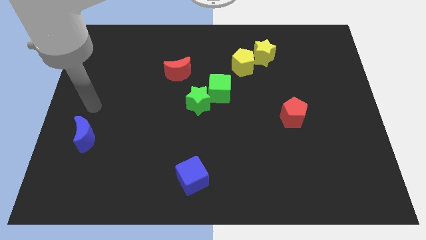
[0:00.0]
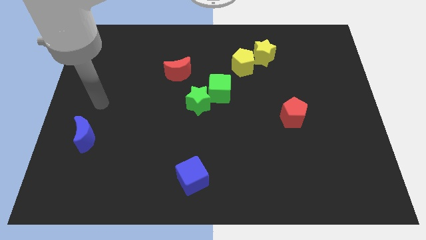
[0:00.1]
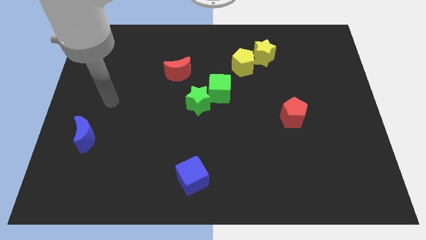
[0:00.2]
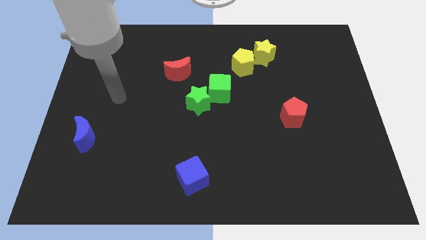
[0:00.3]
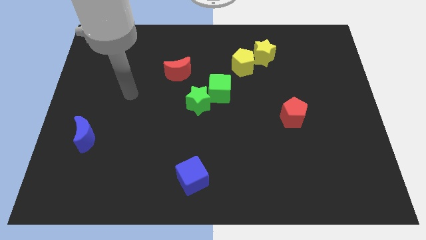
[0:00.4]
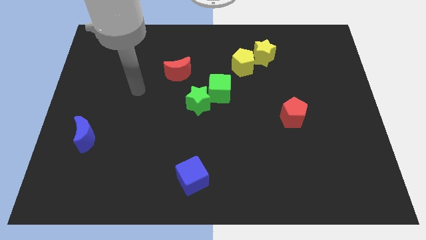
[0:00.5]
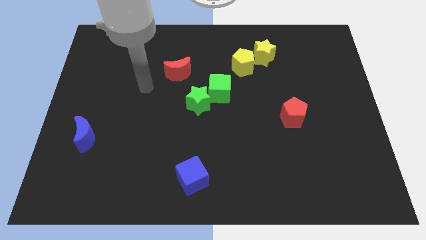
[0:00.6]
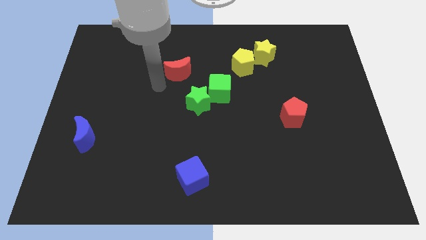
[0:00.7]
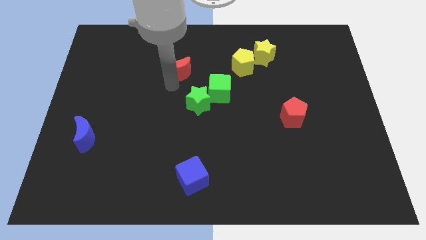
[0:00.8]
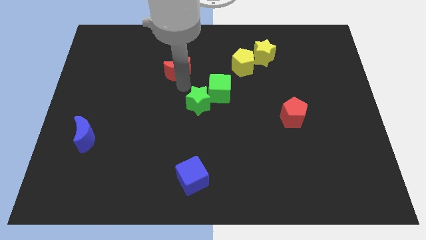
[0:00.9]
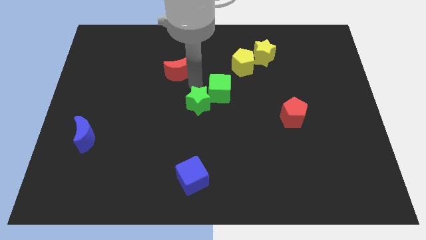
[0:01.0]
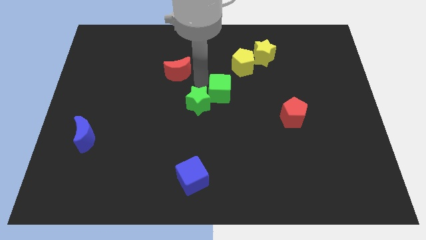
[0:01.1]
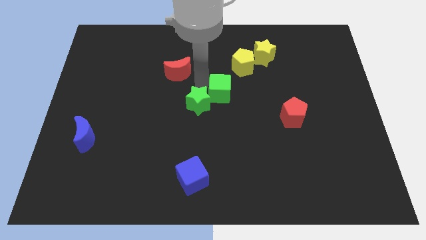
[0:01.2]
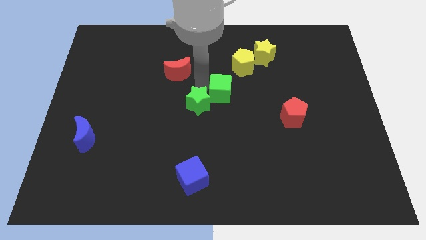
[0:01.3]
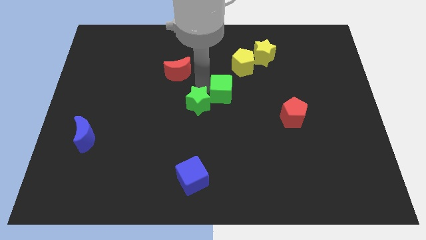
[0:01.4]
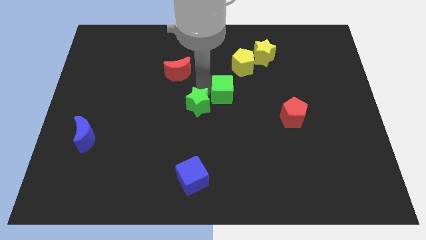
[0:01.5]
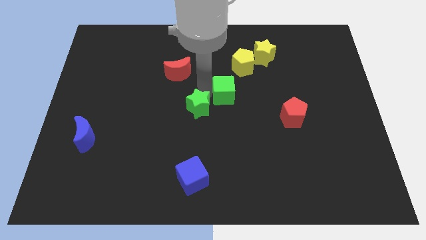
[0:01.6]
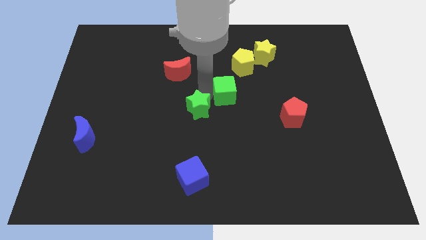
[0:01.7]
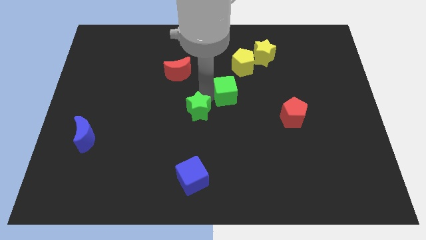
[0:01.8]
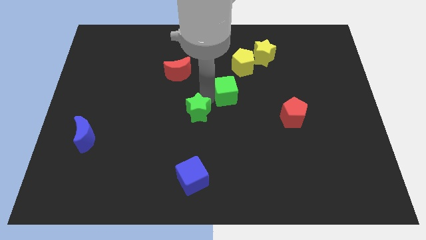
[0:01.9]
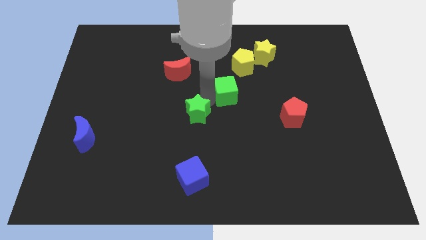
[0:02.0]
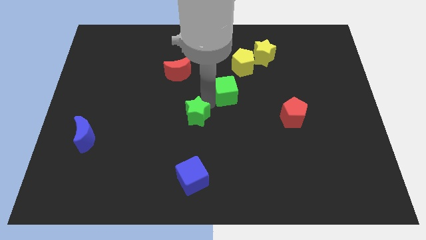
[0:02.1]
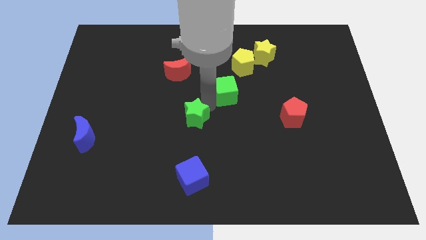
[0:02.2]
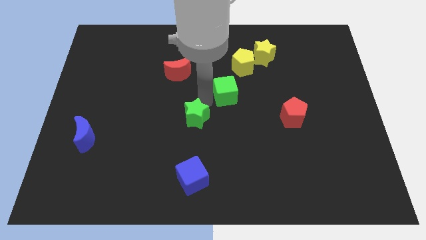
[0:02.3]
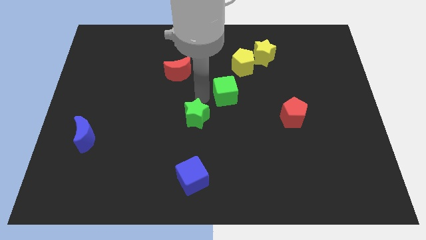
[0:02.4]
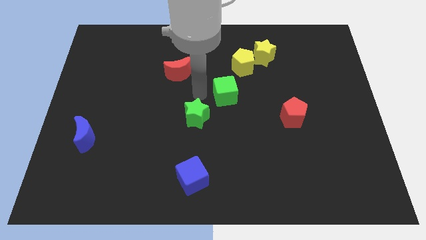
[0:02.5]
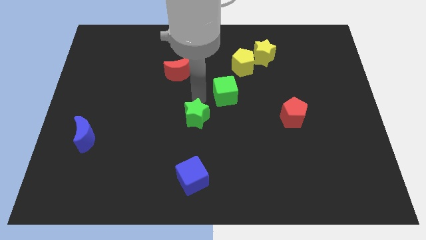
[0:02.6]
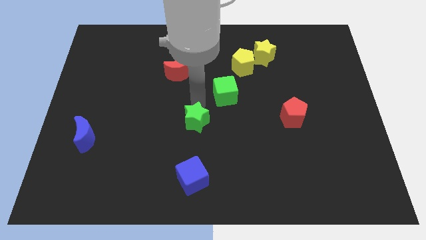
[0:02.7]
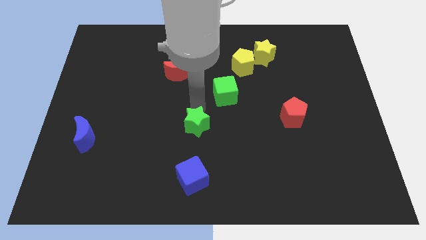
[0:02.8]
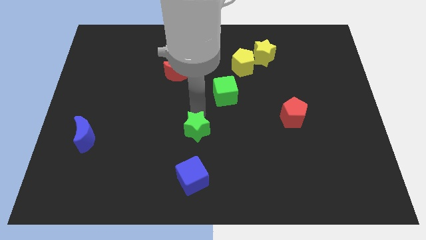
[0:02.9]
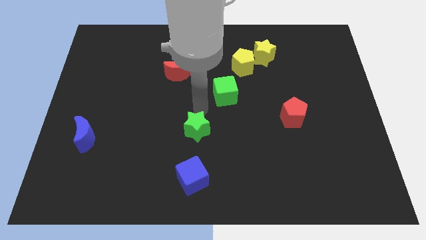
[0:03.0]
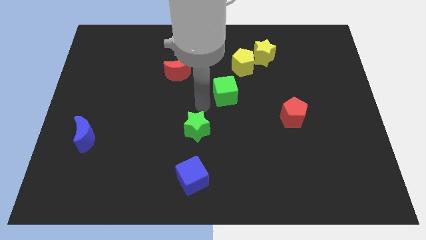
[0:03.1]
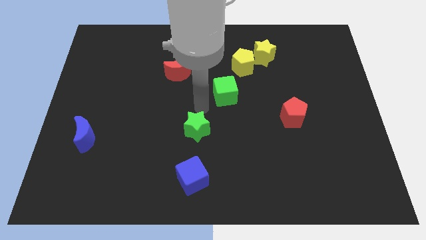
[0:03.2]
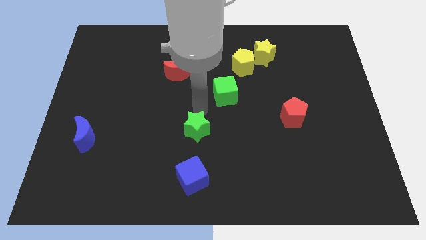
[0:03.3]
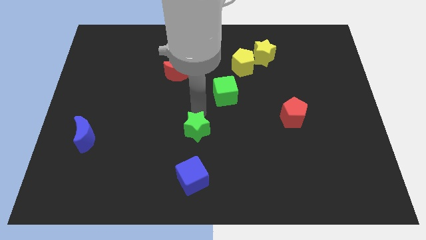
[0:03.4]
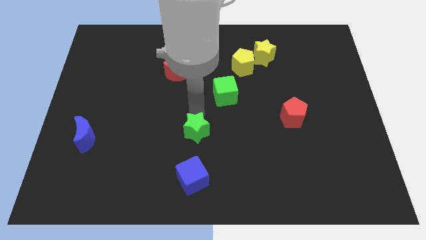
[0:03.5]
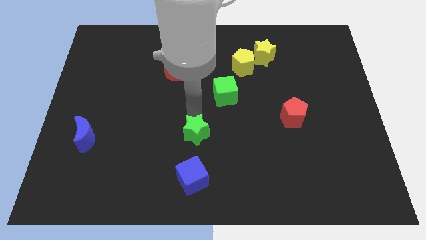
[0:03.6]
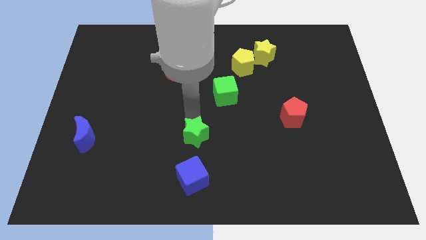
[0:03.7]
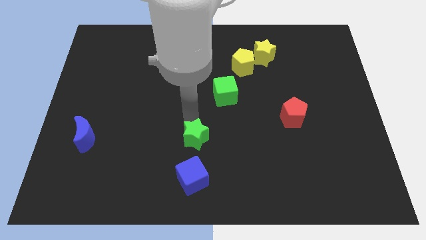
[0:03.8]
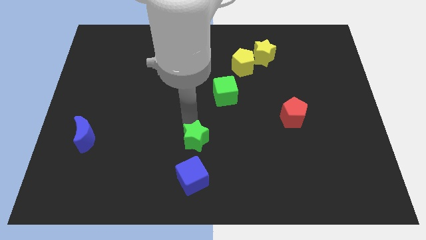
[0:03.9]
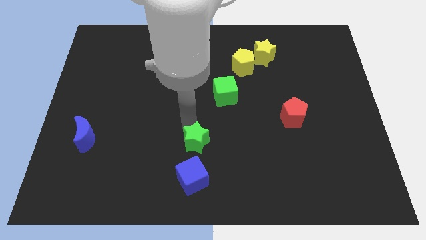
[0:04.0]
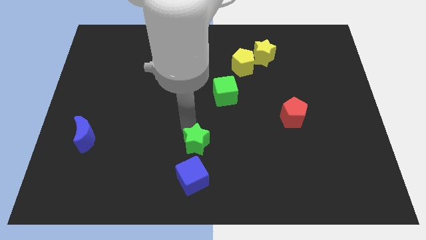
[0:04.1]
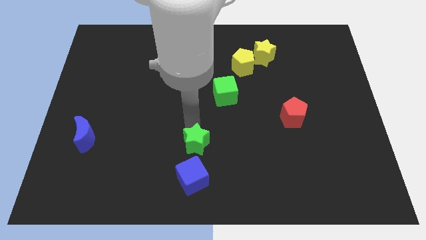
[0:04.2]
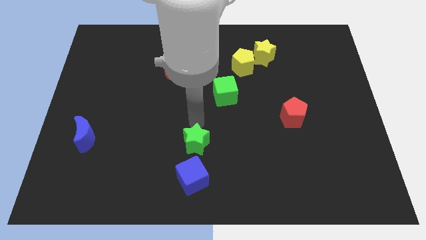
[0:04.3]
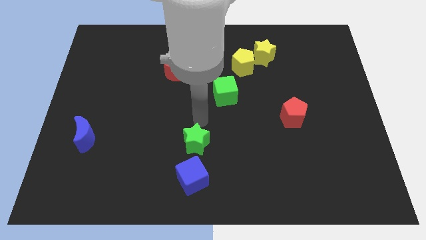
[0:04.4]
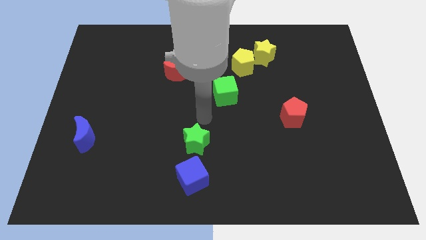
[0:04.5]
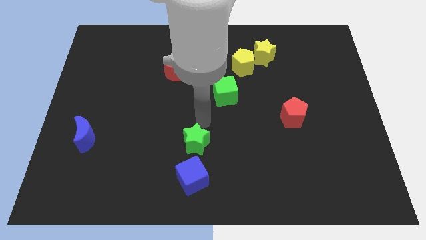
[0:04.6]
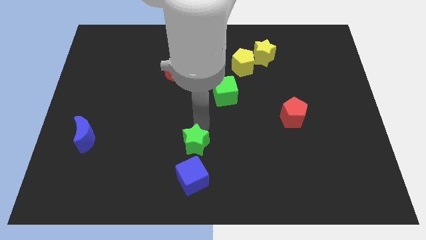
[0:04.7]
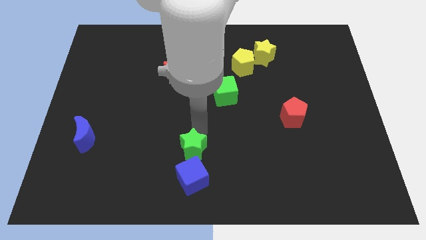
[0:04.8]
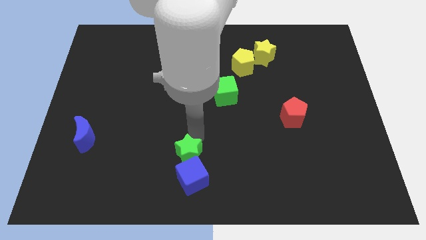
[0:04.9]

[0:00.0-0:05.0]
push the green star close to the blue cube

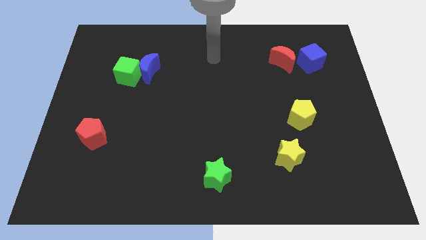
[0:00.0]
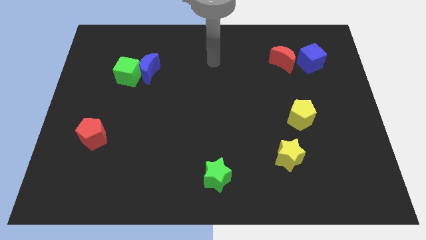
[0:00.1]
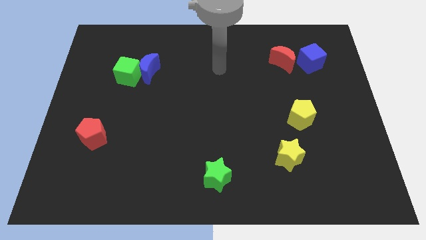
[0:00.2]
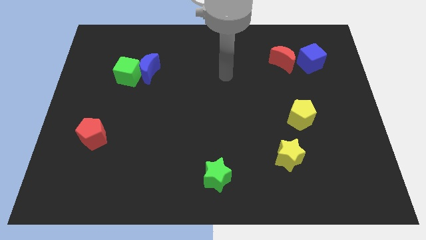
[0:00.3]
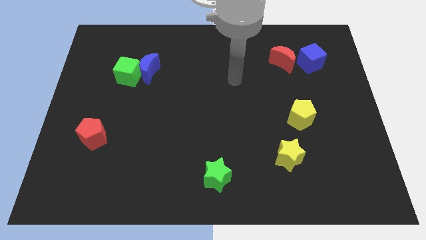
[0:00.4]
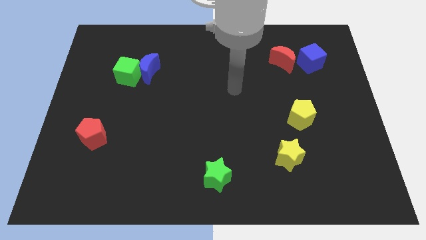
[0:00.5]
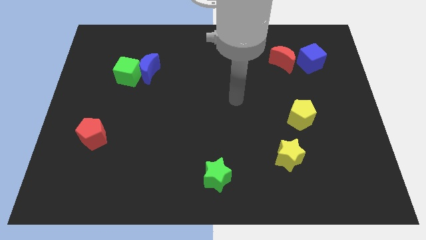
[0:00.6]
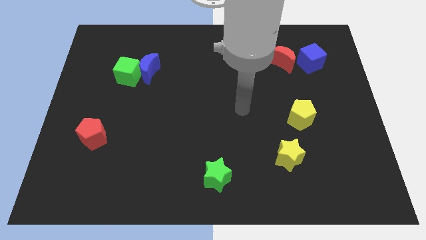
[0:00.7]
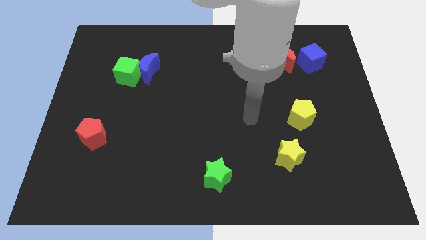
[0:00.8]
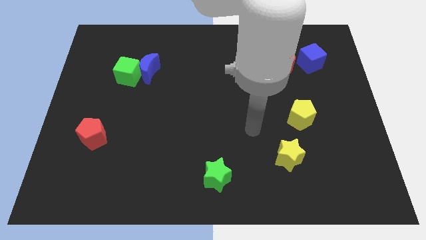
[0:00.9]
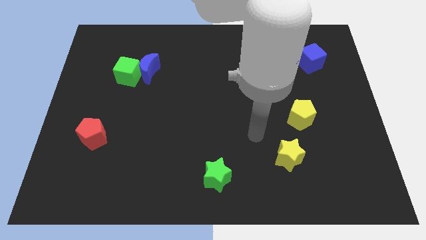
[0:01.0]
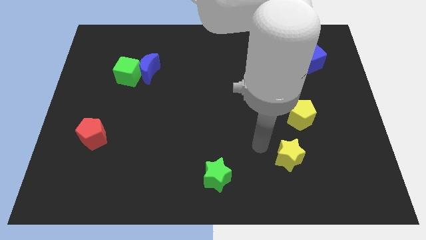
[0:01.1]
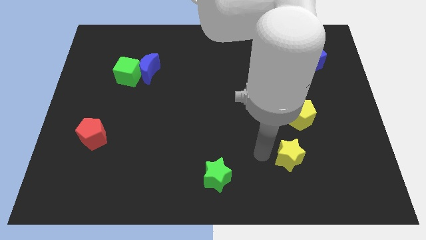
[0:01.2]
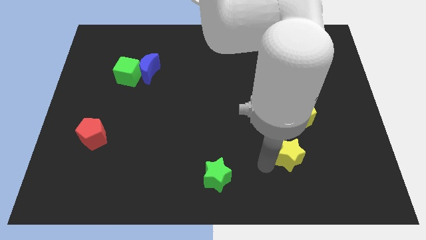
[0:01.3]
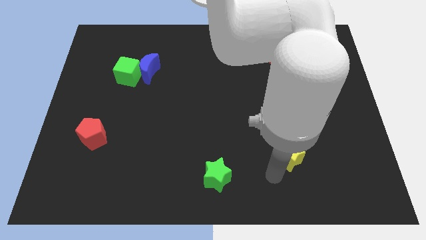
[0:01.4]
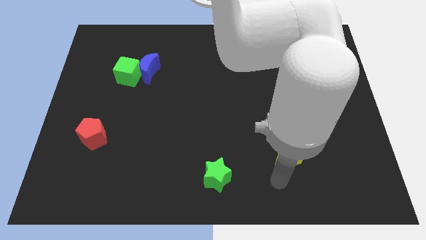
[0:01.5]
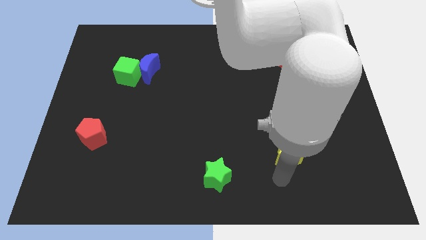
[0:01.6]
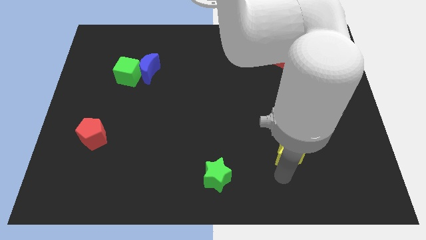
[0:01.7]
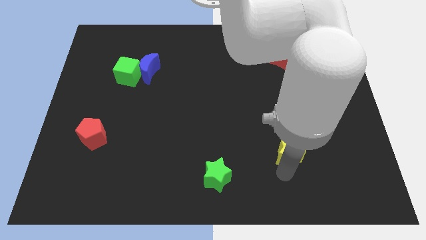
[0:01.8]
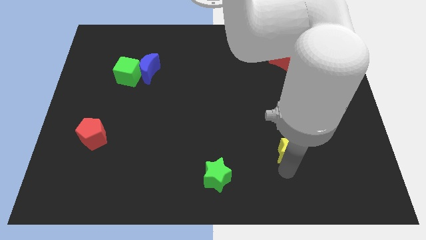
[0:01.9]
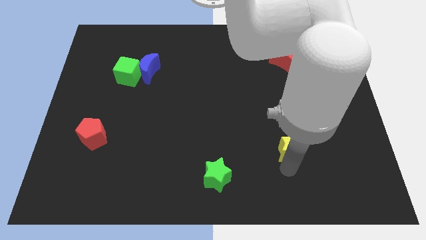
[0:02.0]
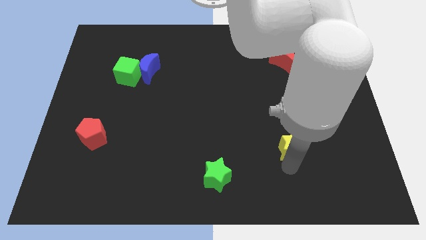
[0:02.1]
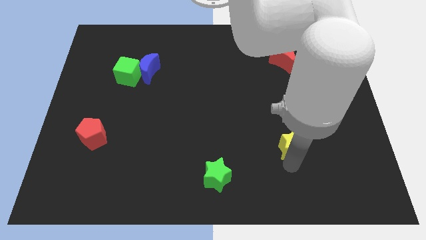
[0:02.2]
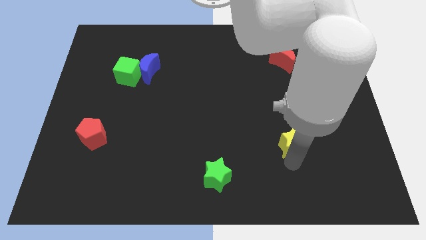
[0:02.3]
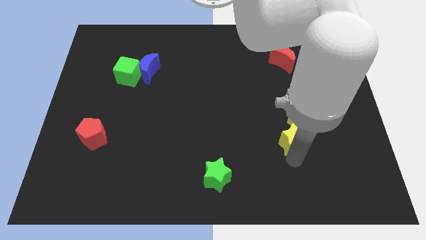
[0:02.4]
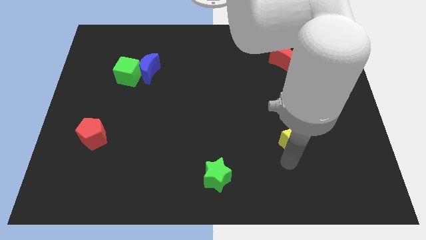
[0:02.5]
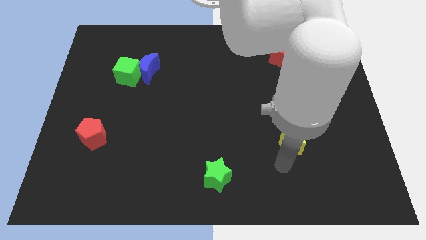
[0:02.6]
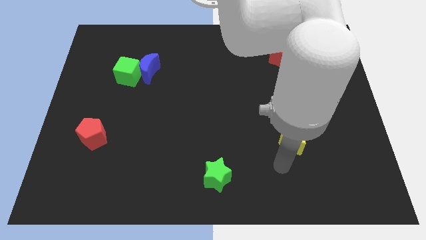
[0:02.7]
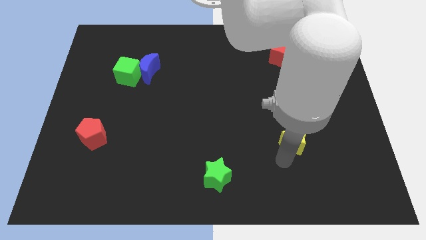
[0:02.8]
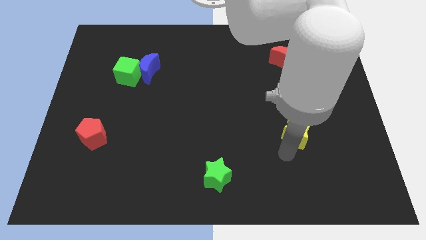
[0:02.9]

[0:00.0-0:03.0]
slide the yellow star towards the yellow pentagon
